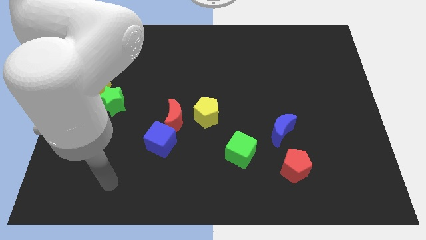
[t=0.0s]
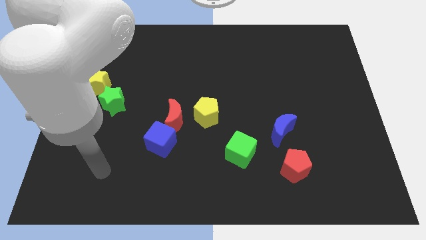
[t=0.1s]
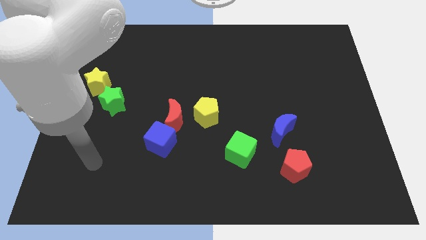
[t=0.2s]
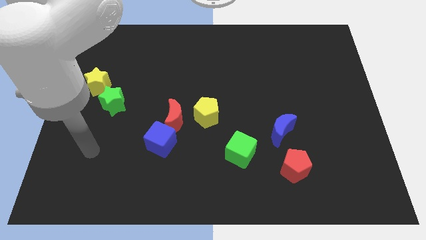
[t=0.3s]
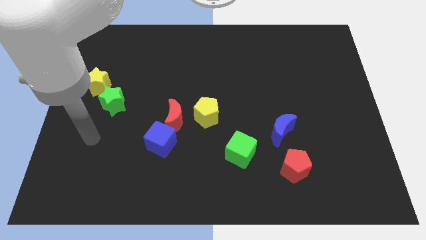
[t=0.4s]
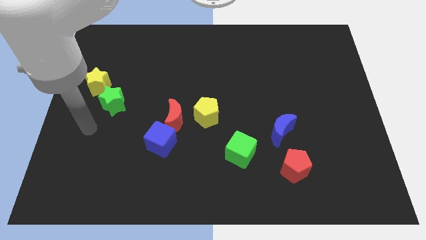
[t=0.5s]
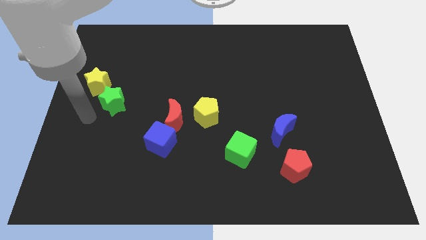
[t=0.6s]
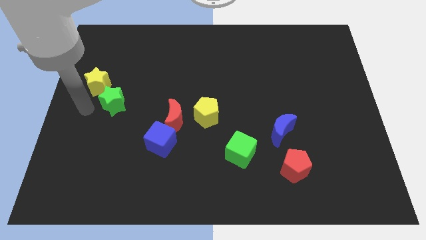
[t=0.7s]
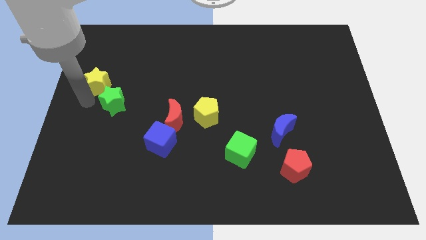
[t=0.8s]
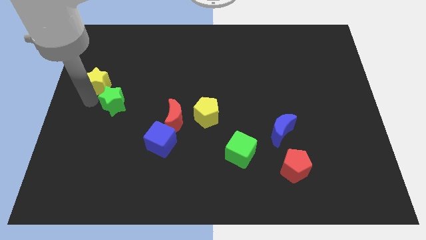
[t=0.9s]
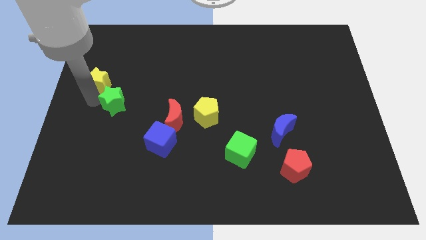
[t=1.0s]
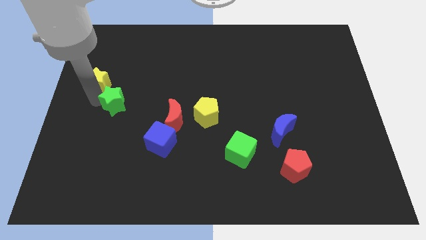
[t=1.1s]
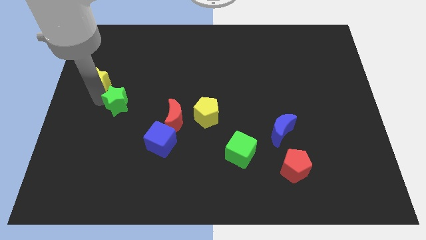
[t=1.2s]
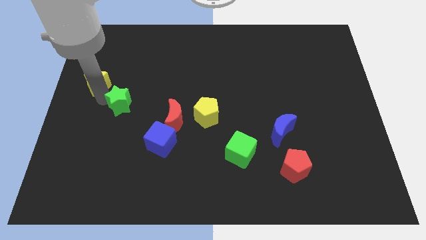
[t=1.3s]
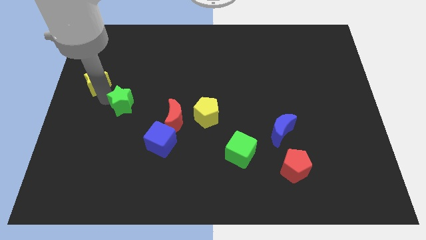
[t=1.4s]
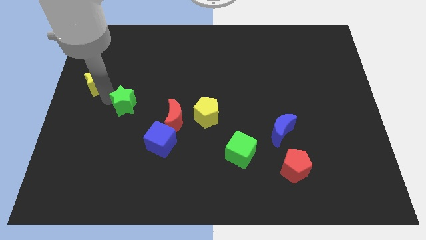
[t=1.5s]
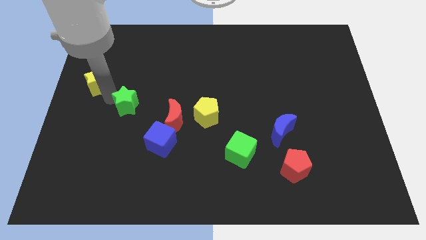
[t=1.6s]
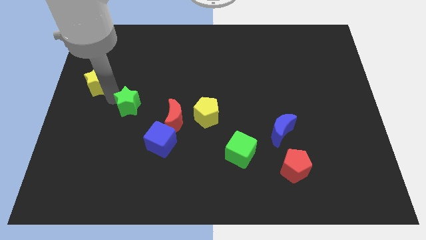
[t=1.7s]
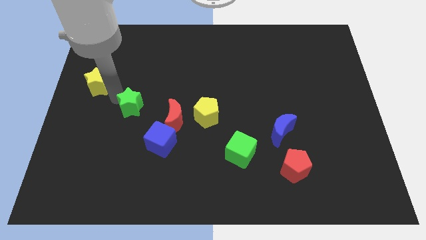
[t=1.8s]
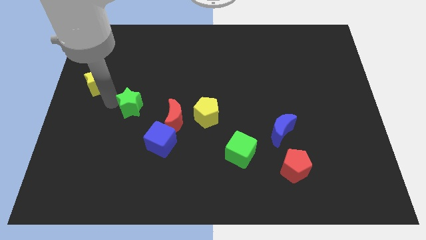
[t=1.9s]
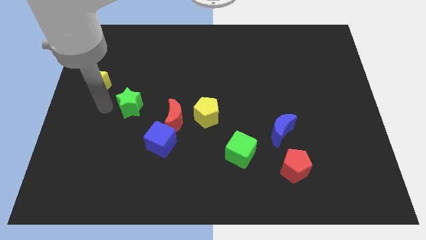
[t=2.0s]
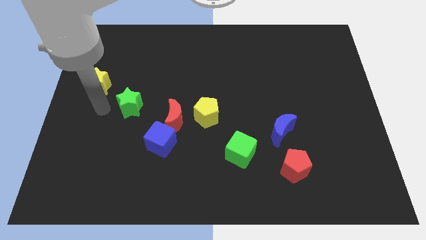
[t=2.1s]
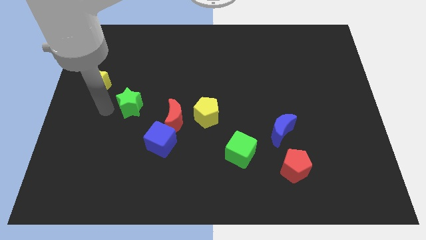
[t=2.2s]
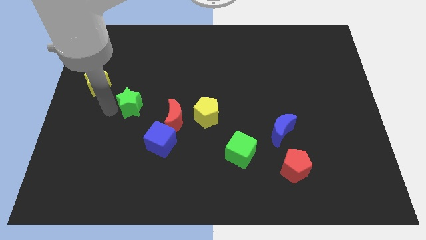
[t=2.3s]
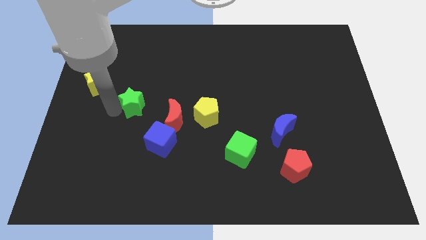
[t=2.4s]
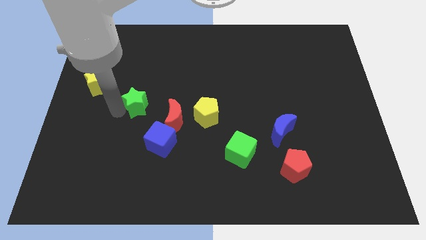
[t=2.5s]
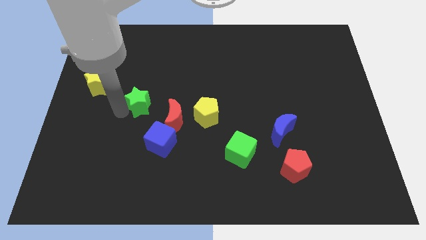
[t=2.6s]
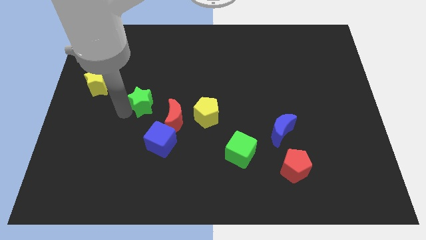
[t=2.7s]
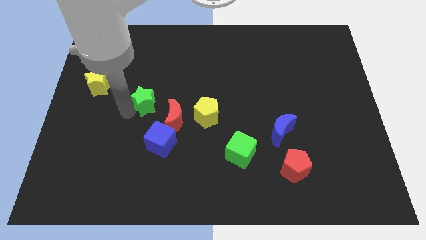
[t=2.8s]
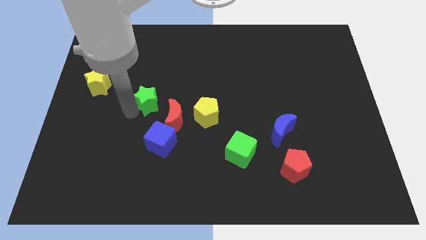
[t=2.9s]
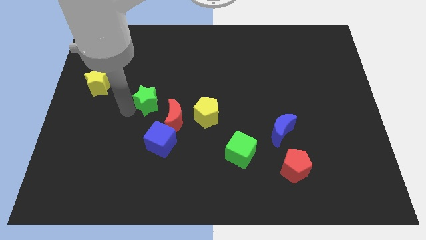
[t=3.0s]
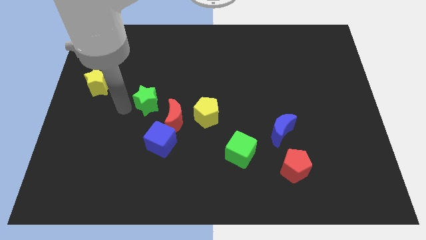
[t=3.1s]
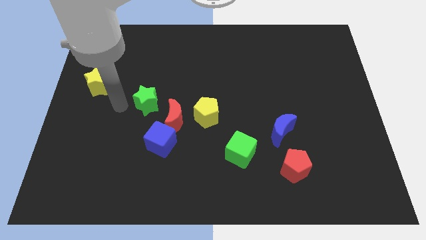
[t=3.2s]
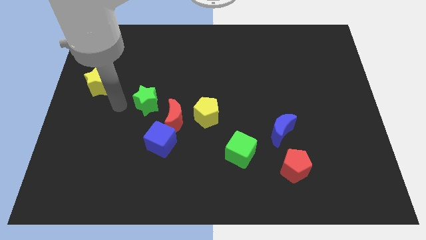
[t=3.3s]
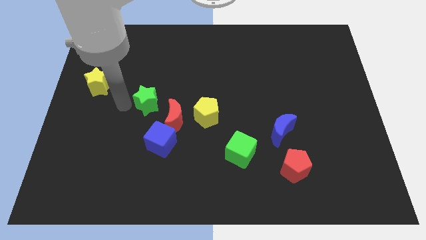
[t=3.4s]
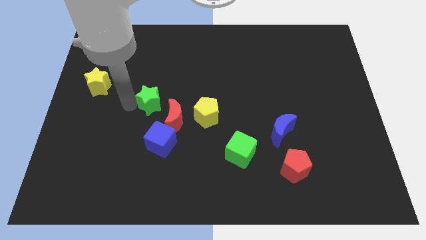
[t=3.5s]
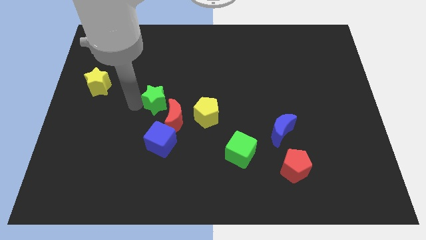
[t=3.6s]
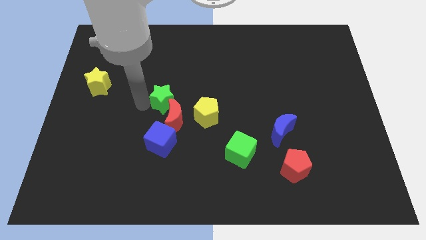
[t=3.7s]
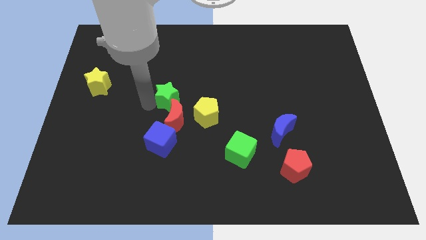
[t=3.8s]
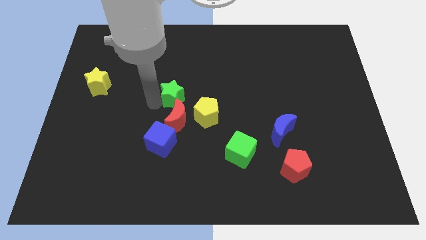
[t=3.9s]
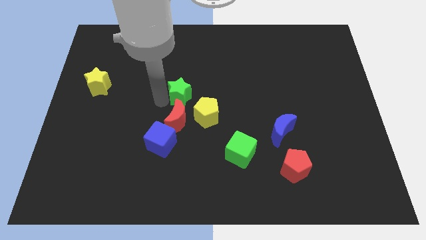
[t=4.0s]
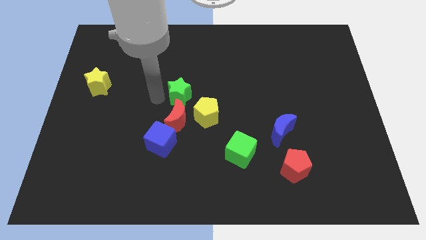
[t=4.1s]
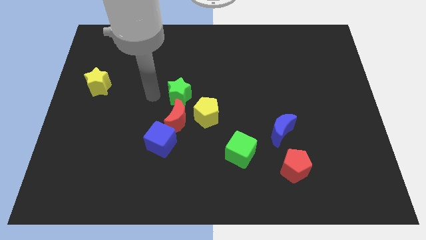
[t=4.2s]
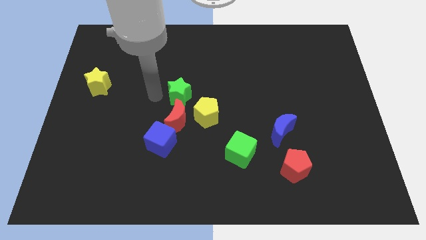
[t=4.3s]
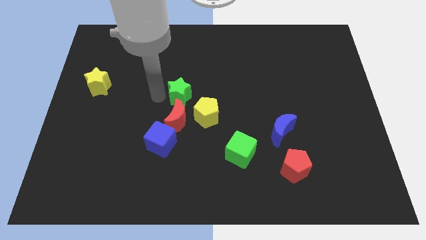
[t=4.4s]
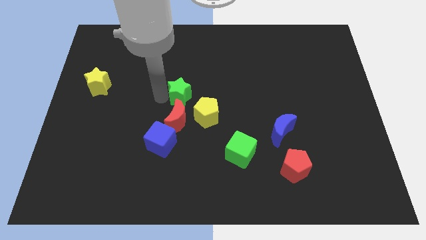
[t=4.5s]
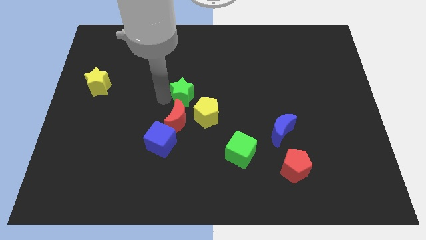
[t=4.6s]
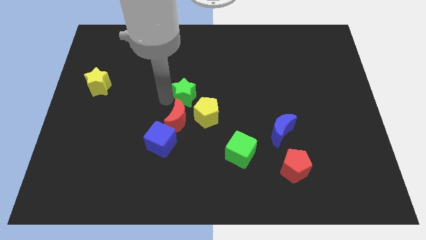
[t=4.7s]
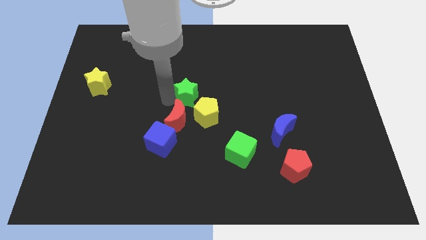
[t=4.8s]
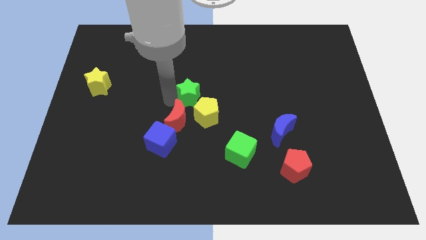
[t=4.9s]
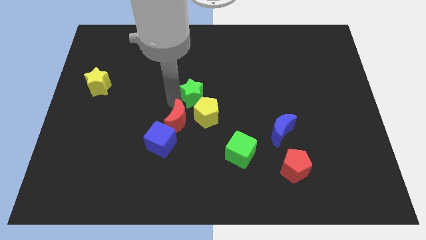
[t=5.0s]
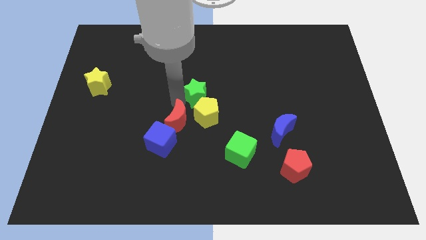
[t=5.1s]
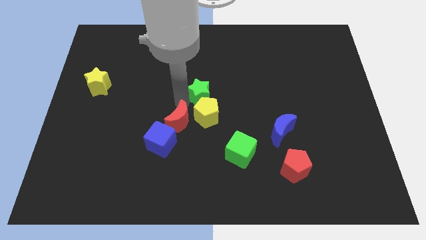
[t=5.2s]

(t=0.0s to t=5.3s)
push the green star right

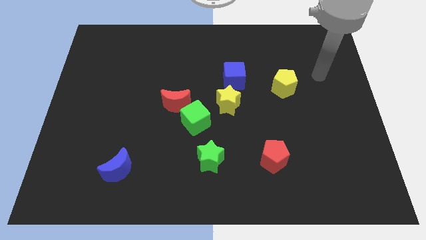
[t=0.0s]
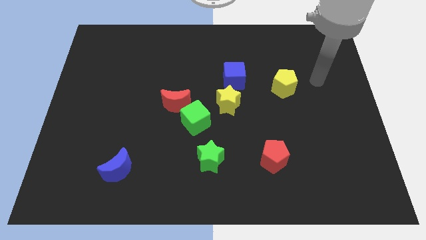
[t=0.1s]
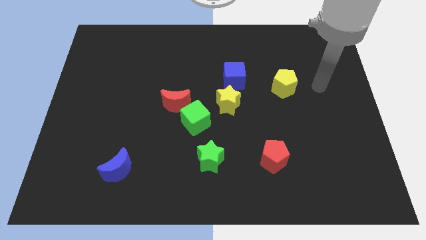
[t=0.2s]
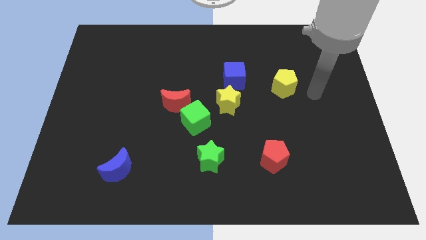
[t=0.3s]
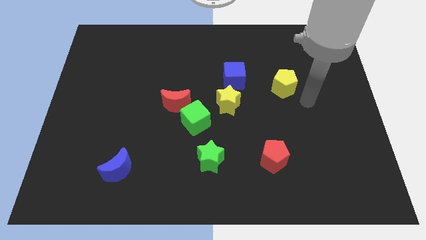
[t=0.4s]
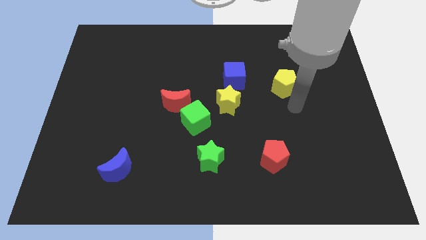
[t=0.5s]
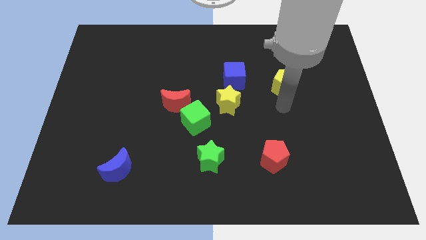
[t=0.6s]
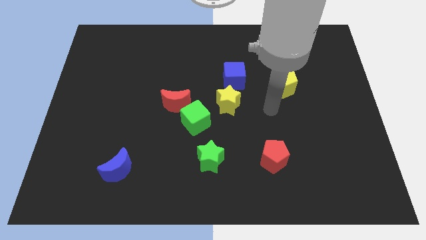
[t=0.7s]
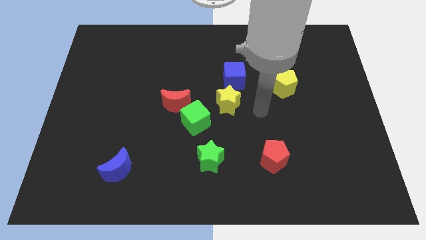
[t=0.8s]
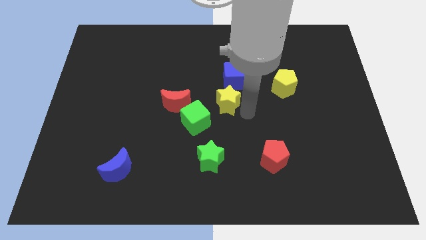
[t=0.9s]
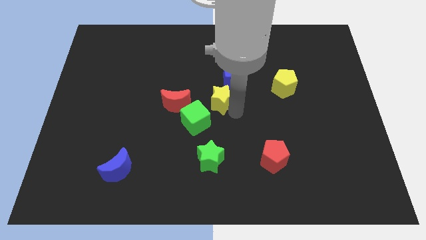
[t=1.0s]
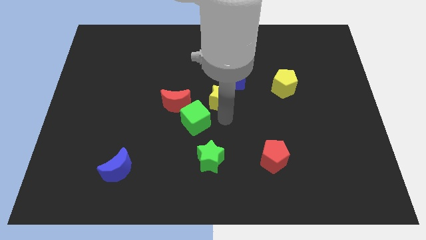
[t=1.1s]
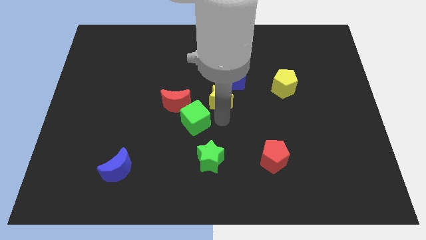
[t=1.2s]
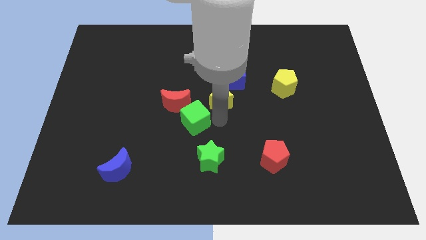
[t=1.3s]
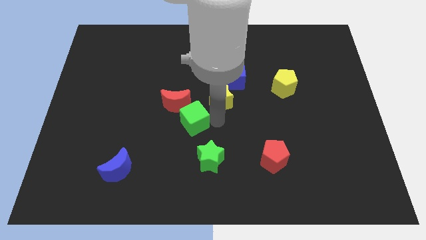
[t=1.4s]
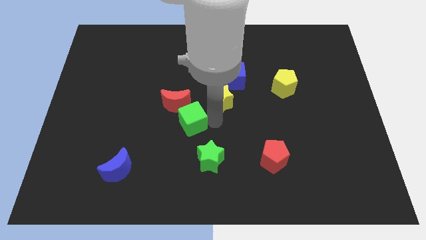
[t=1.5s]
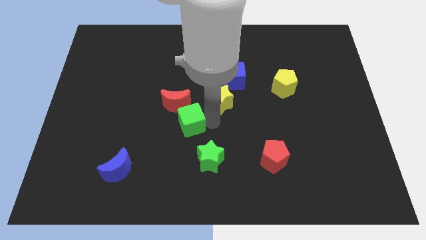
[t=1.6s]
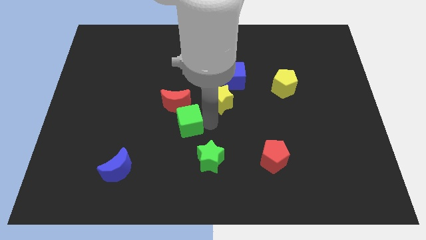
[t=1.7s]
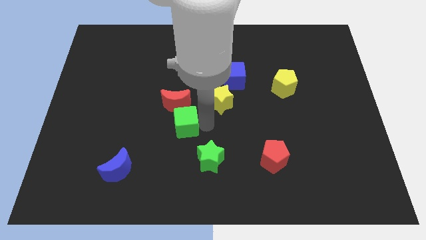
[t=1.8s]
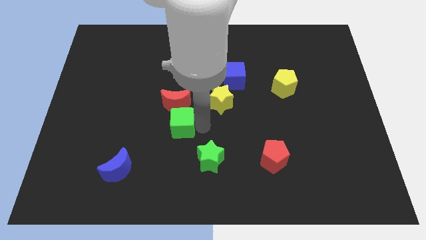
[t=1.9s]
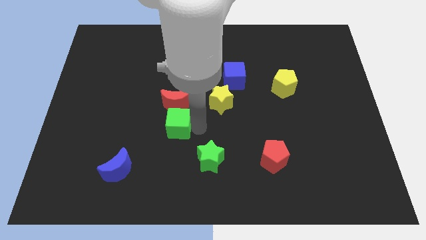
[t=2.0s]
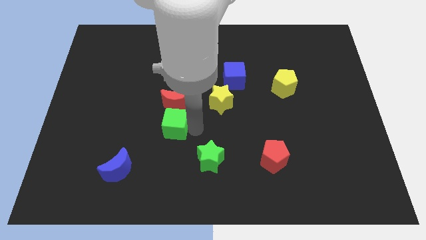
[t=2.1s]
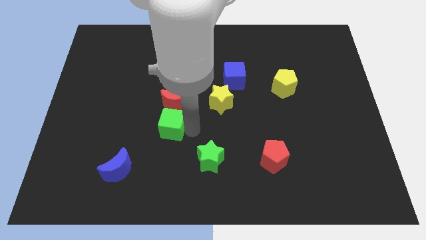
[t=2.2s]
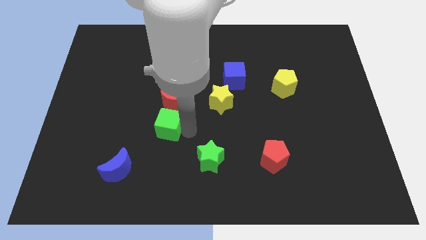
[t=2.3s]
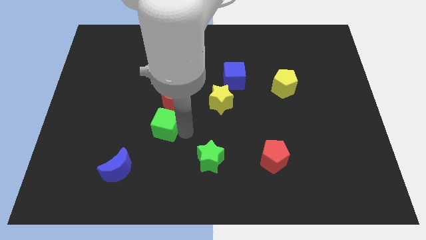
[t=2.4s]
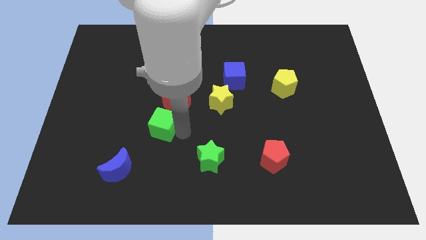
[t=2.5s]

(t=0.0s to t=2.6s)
move the green cube to the left somewhat
